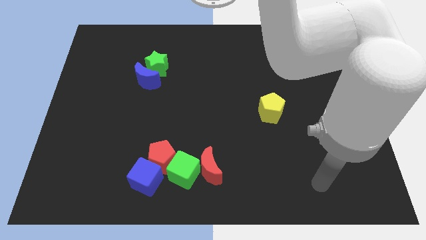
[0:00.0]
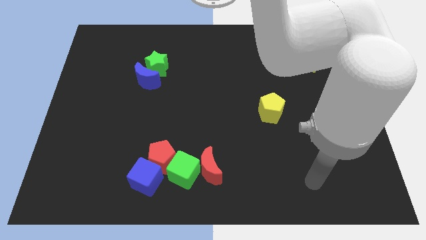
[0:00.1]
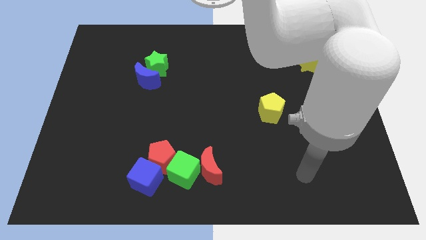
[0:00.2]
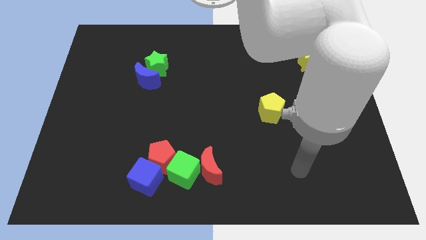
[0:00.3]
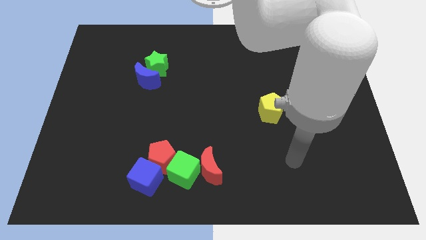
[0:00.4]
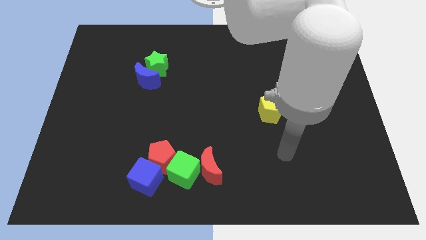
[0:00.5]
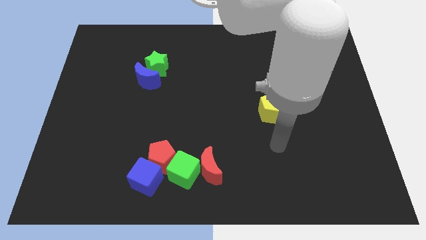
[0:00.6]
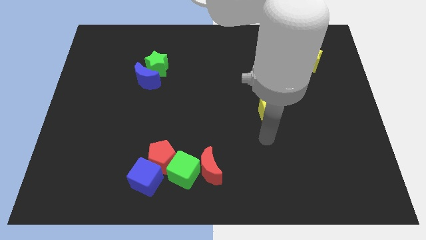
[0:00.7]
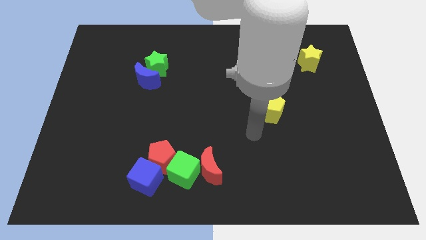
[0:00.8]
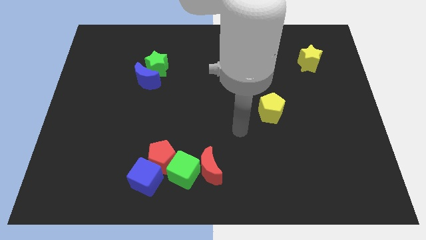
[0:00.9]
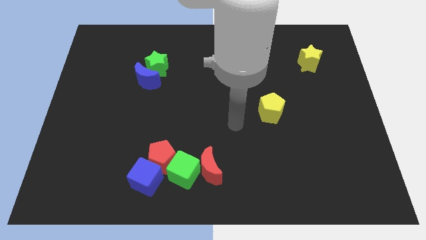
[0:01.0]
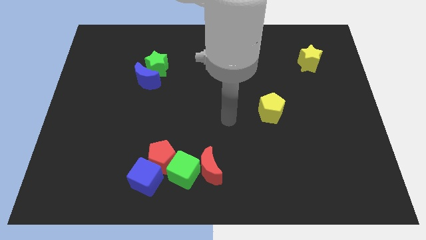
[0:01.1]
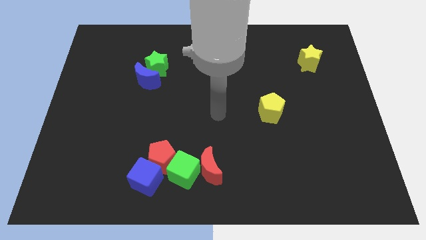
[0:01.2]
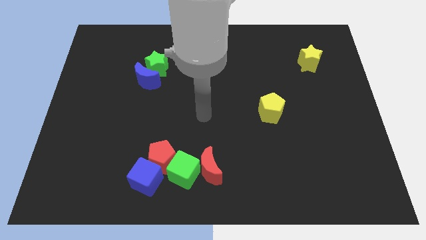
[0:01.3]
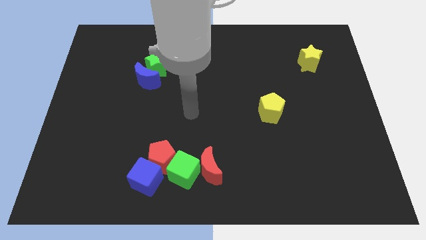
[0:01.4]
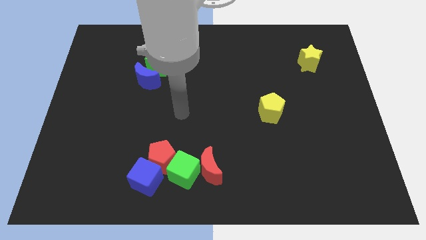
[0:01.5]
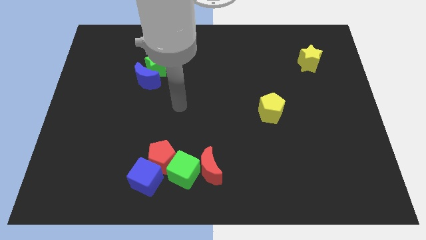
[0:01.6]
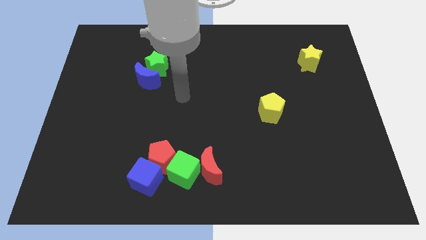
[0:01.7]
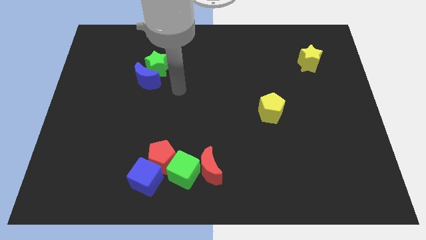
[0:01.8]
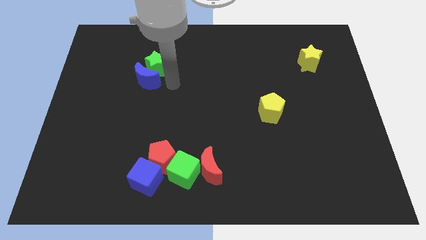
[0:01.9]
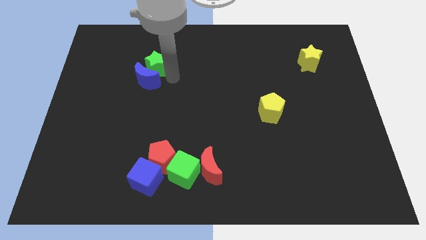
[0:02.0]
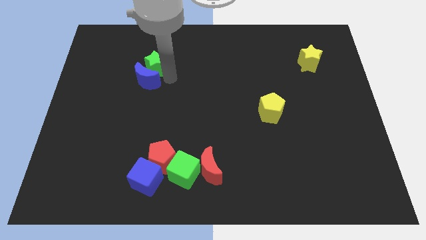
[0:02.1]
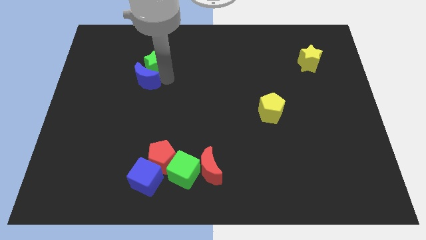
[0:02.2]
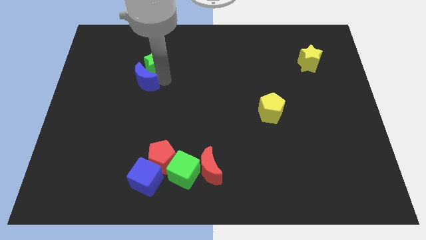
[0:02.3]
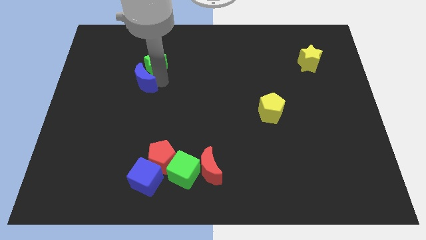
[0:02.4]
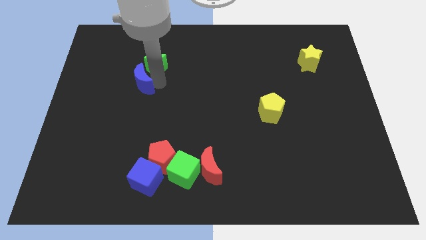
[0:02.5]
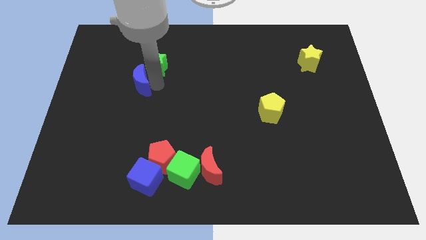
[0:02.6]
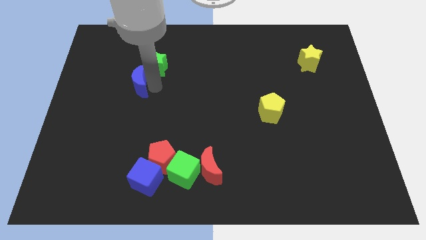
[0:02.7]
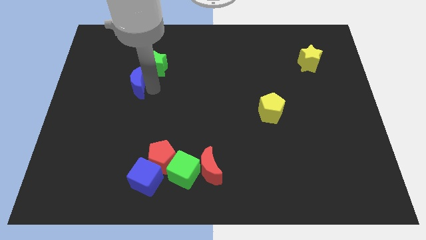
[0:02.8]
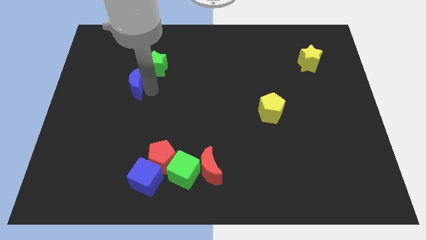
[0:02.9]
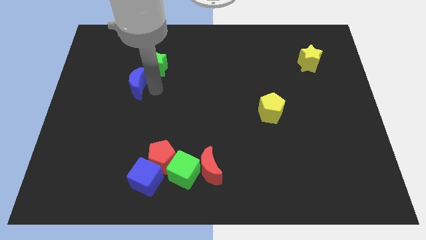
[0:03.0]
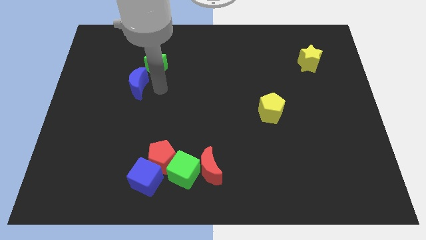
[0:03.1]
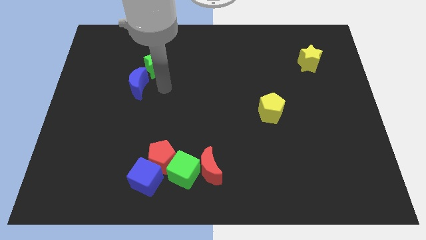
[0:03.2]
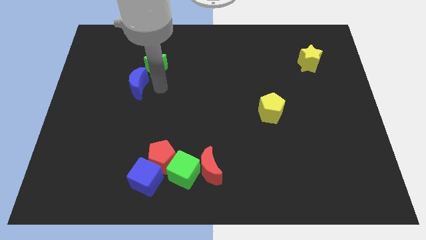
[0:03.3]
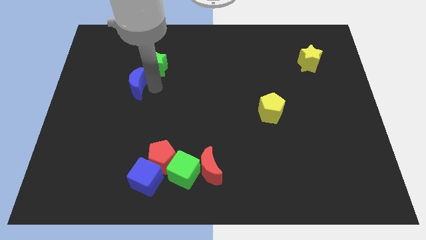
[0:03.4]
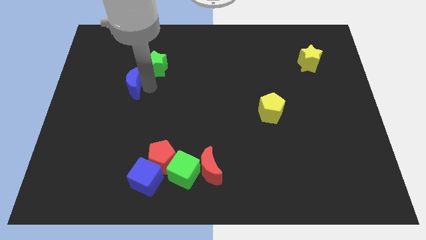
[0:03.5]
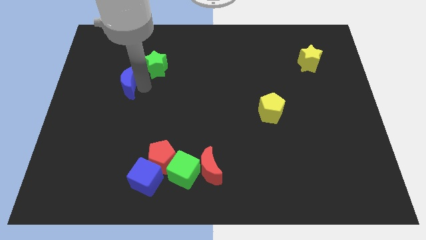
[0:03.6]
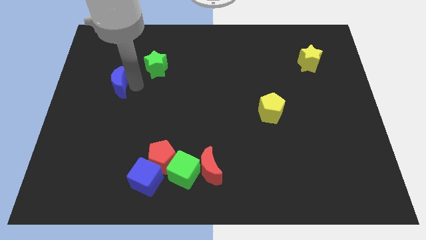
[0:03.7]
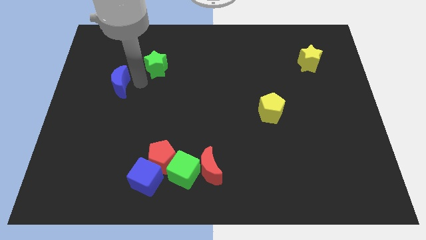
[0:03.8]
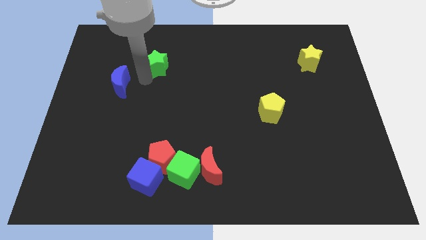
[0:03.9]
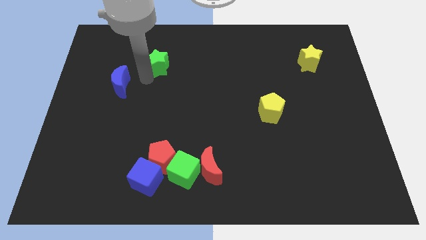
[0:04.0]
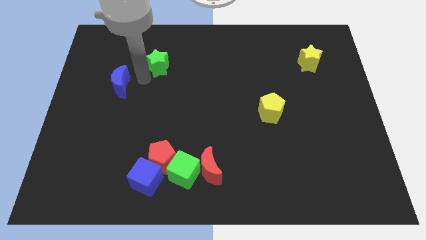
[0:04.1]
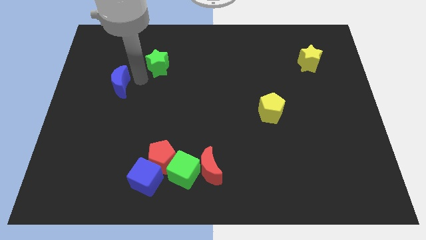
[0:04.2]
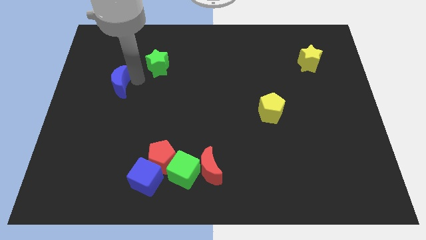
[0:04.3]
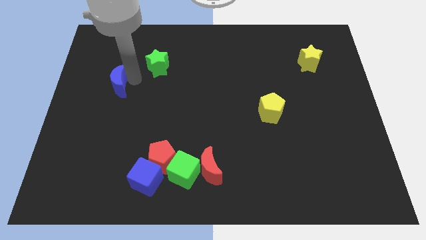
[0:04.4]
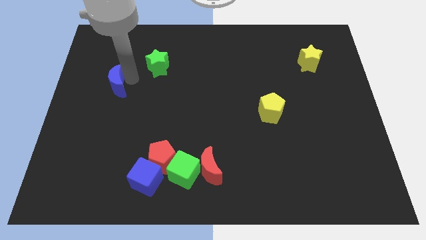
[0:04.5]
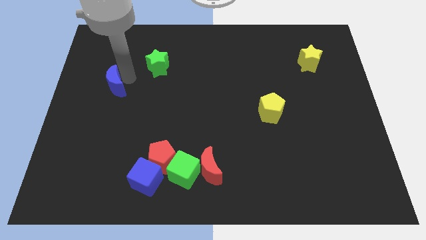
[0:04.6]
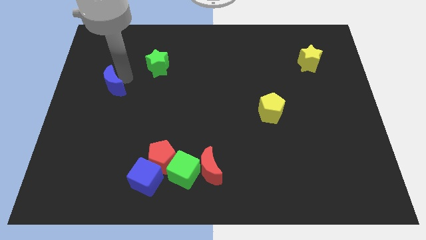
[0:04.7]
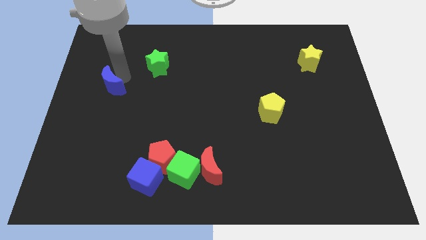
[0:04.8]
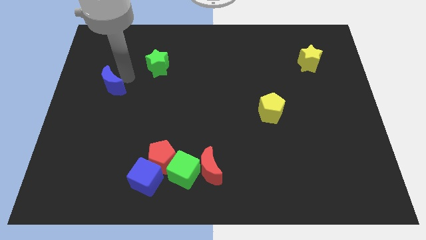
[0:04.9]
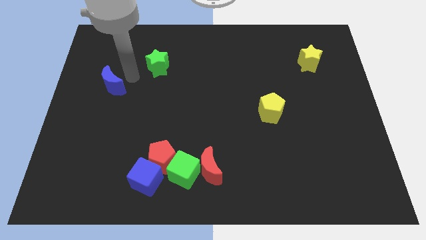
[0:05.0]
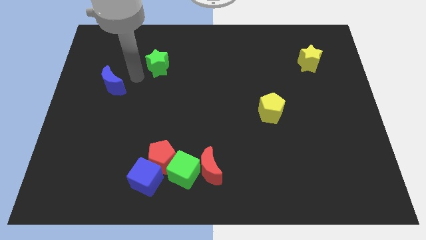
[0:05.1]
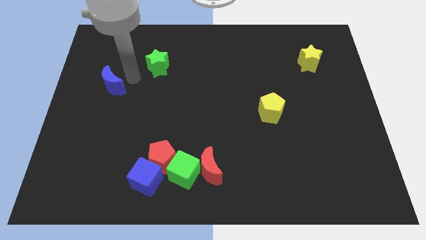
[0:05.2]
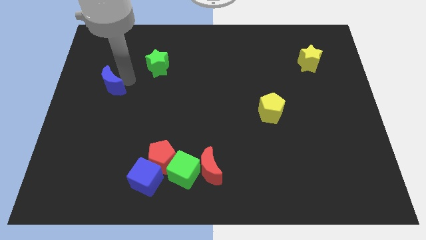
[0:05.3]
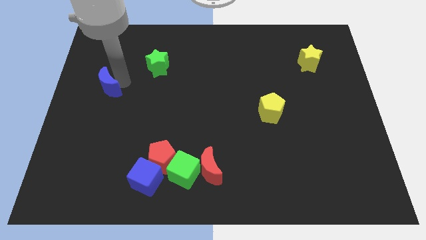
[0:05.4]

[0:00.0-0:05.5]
put the blue moon to the left side of the board

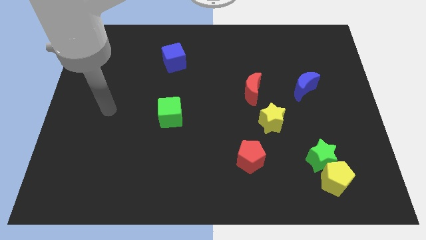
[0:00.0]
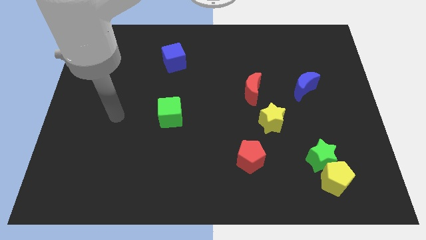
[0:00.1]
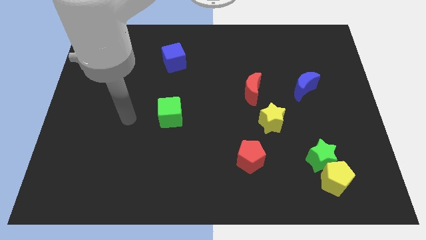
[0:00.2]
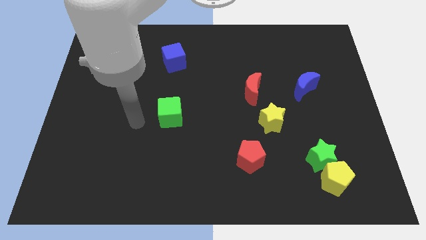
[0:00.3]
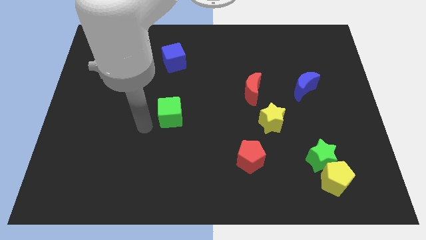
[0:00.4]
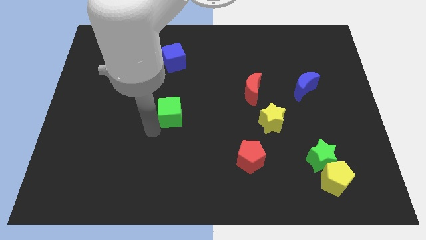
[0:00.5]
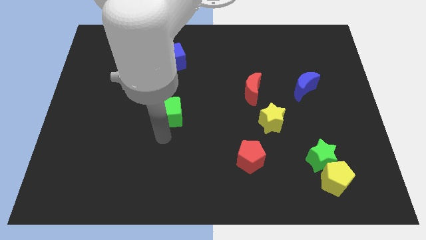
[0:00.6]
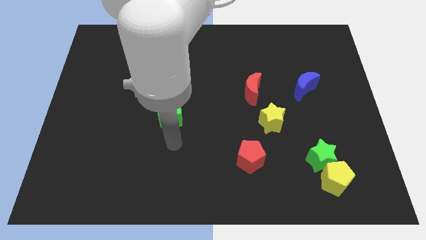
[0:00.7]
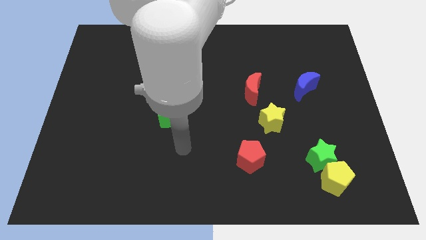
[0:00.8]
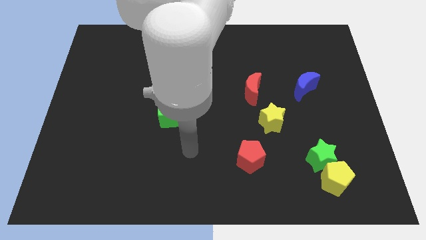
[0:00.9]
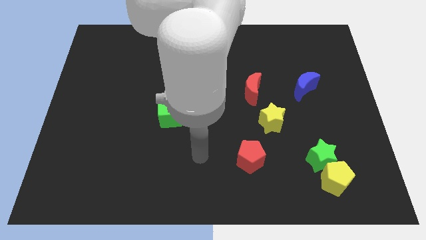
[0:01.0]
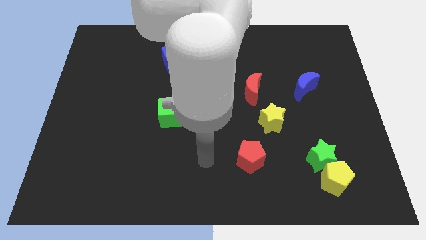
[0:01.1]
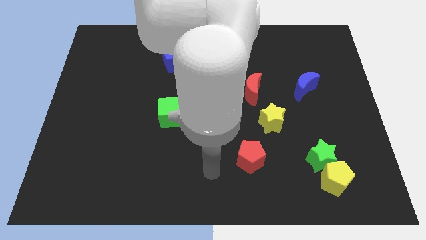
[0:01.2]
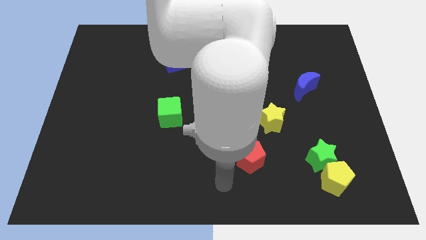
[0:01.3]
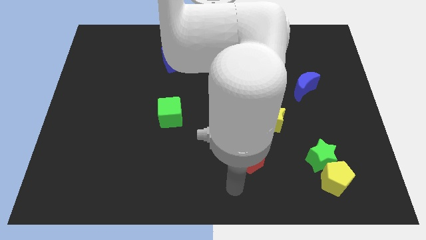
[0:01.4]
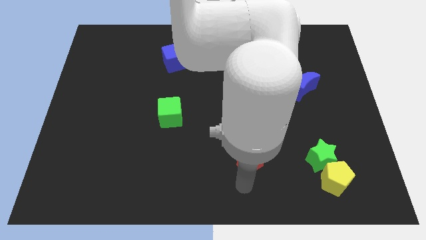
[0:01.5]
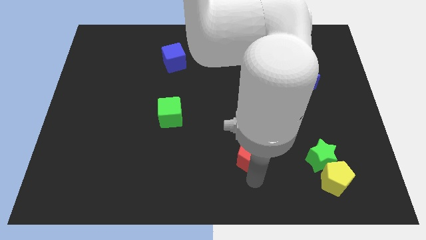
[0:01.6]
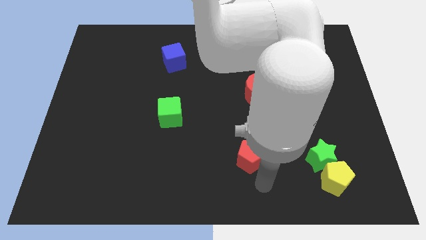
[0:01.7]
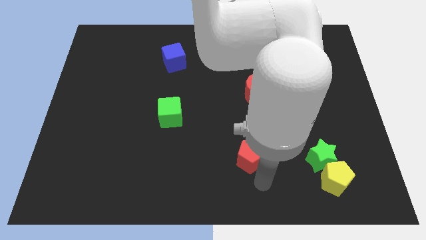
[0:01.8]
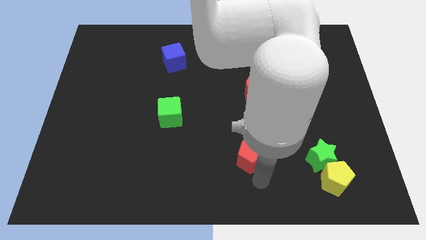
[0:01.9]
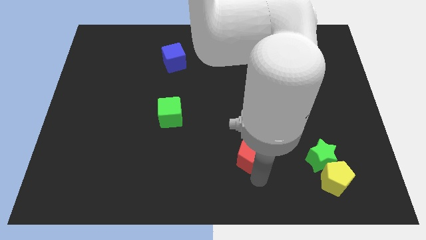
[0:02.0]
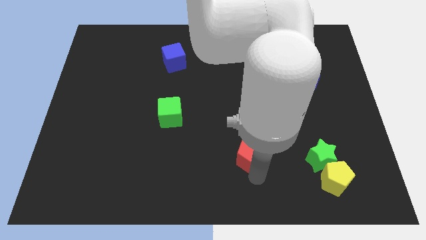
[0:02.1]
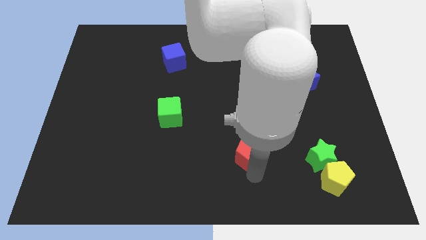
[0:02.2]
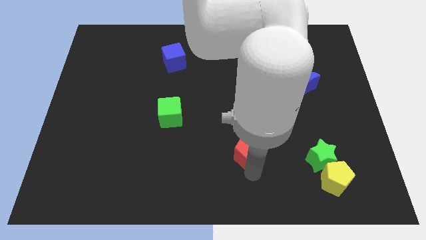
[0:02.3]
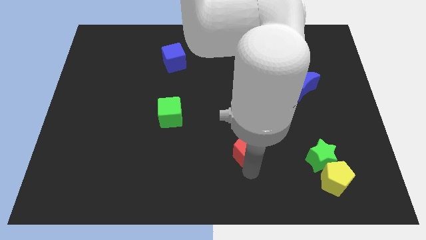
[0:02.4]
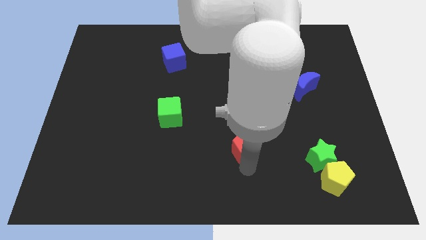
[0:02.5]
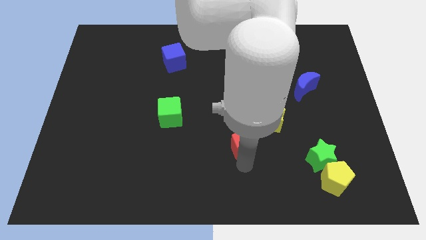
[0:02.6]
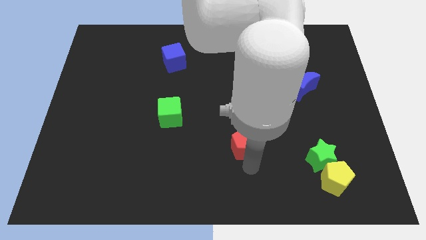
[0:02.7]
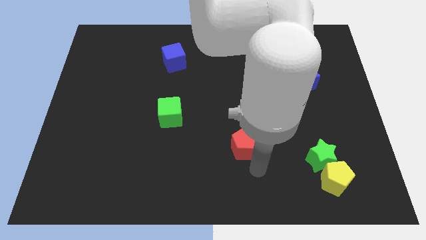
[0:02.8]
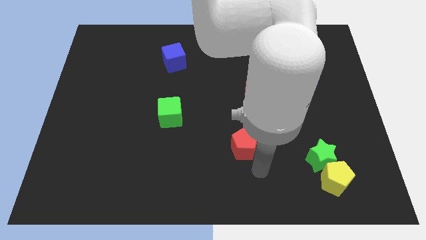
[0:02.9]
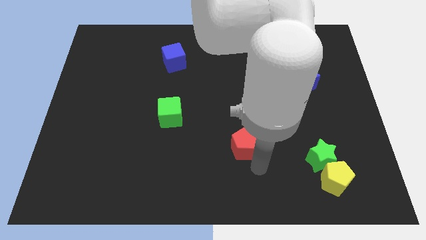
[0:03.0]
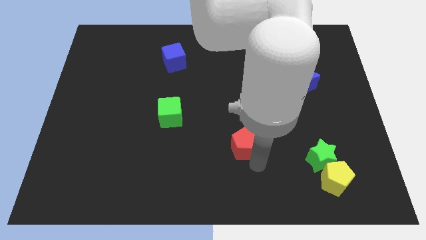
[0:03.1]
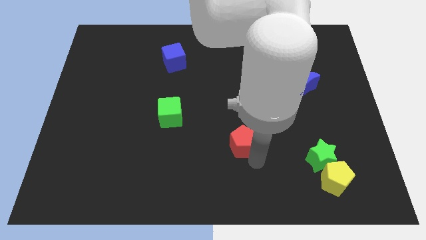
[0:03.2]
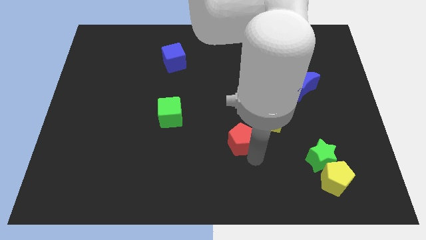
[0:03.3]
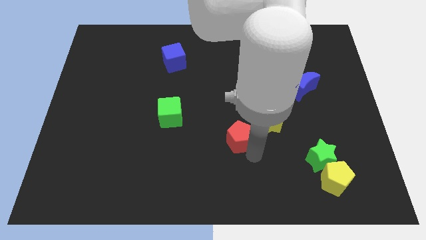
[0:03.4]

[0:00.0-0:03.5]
put the red pentagon to the center
